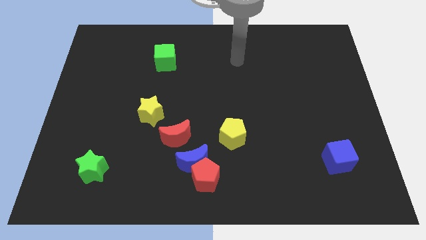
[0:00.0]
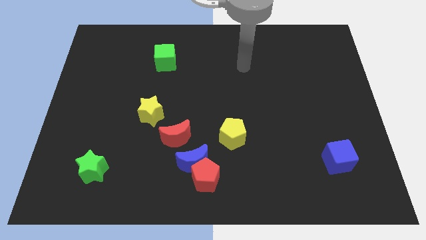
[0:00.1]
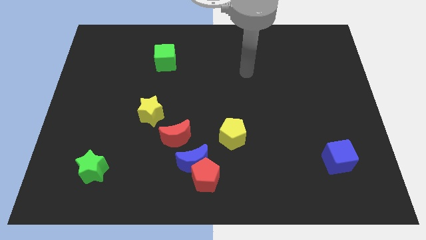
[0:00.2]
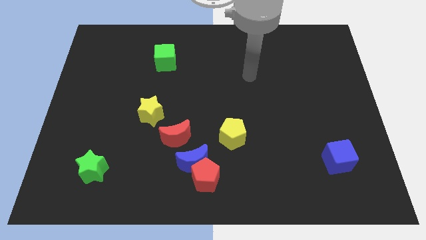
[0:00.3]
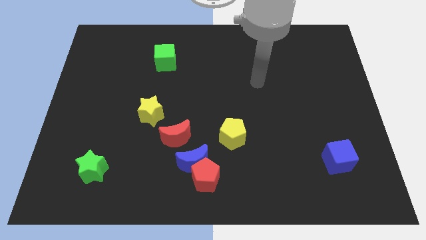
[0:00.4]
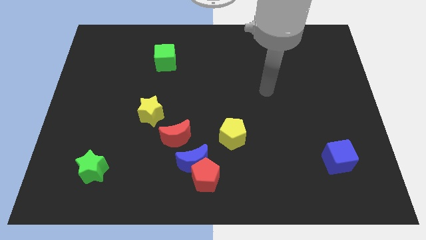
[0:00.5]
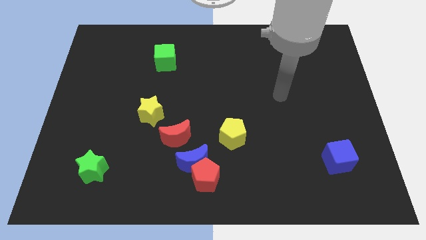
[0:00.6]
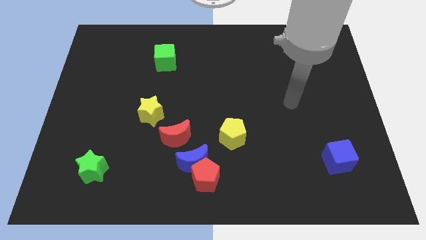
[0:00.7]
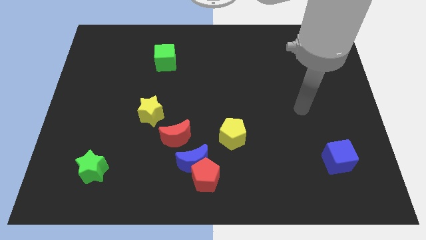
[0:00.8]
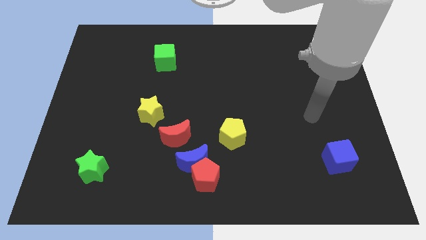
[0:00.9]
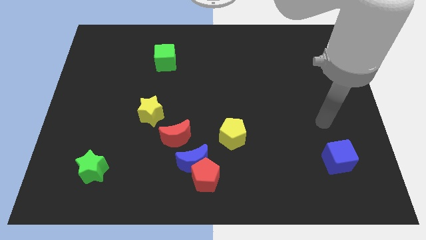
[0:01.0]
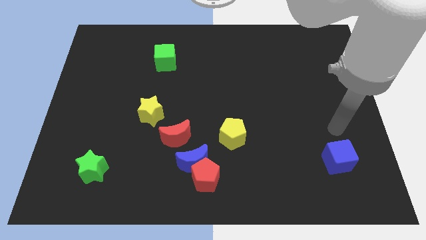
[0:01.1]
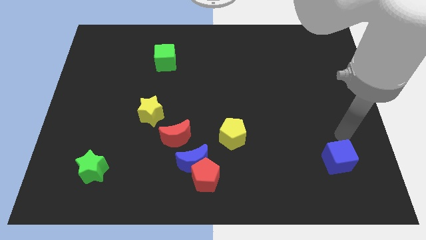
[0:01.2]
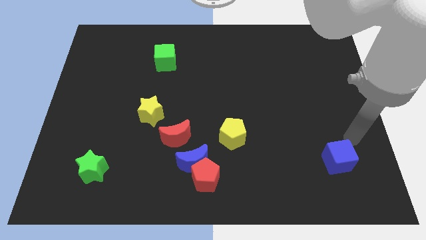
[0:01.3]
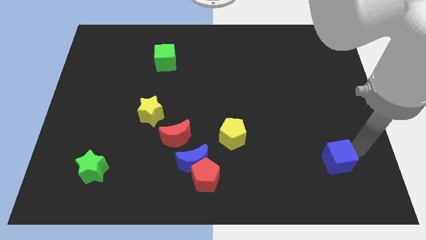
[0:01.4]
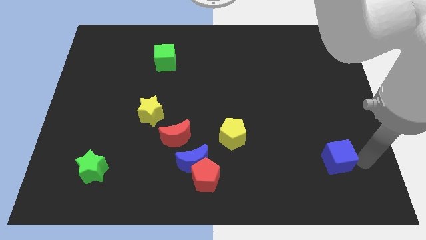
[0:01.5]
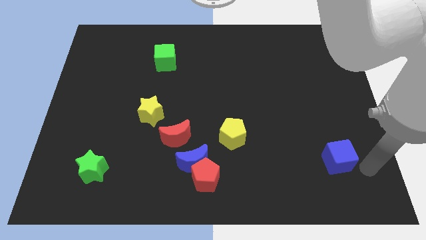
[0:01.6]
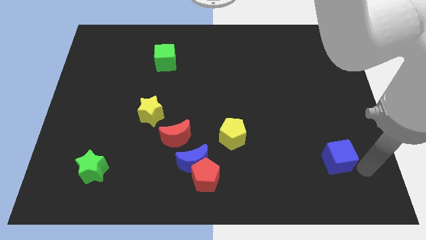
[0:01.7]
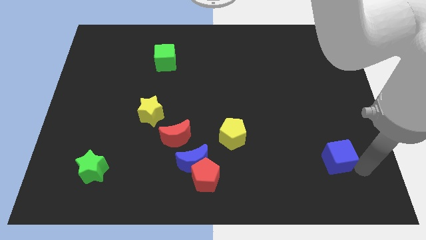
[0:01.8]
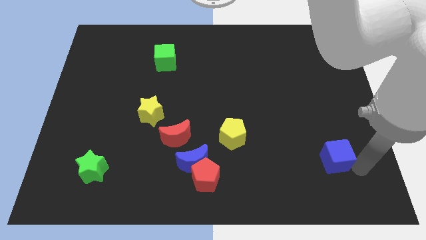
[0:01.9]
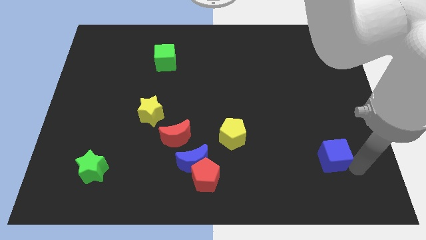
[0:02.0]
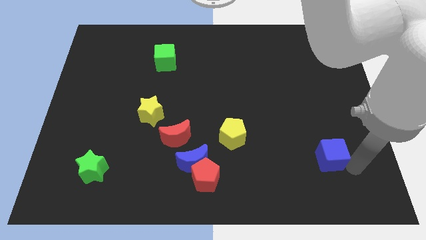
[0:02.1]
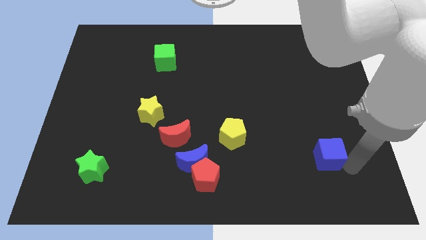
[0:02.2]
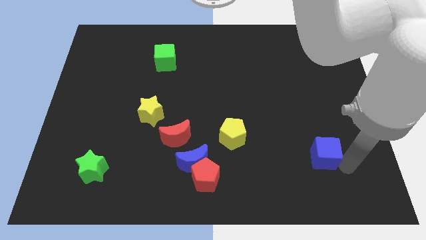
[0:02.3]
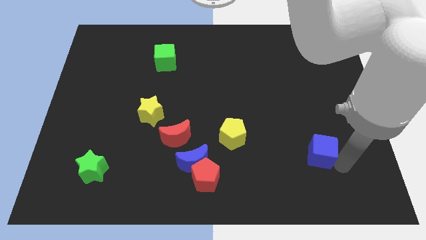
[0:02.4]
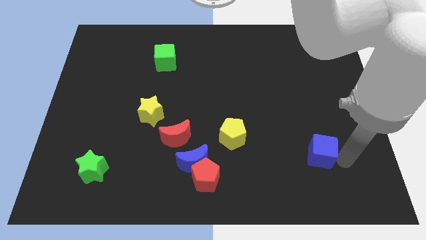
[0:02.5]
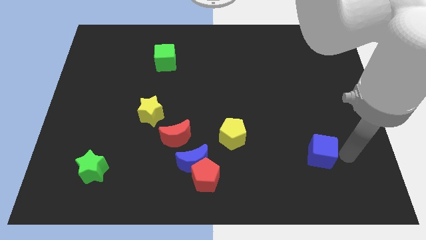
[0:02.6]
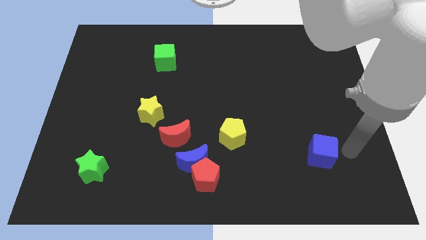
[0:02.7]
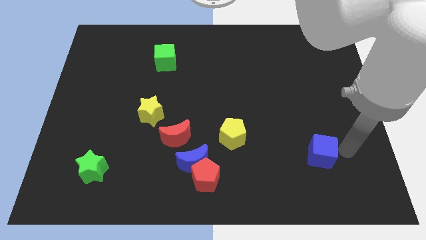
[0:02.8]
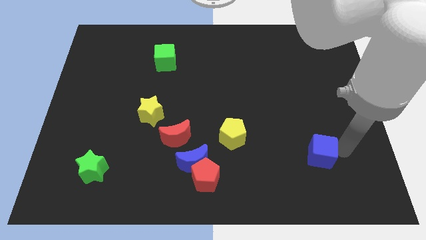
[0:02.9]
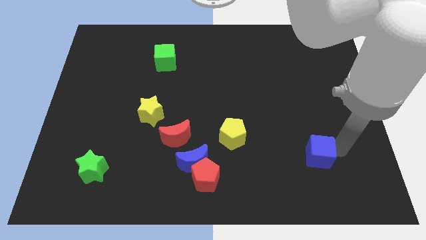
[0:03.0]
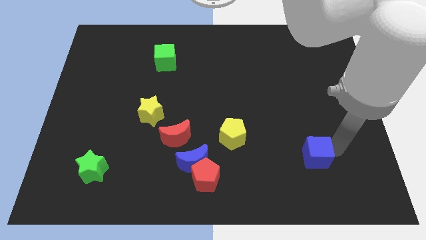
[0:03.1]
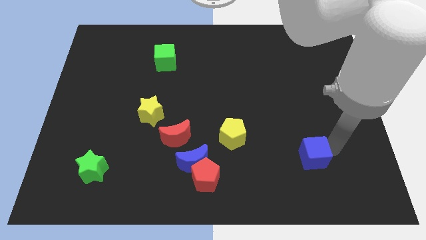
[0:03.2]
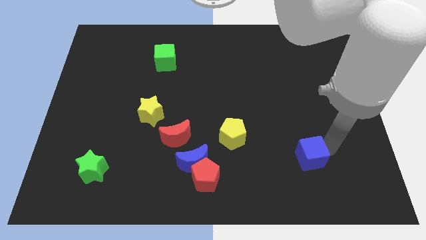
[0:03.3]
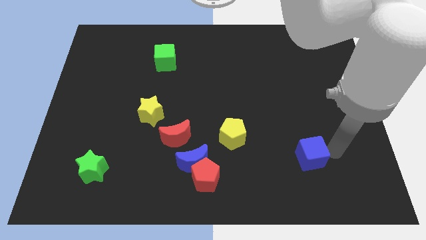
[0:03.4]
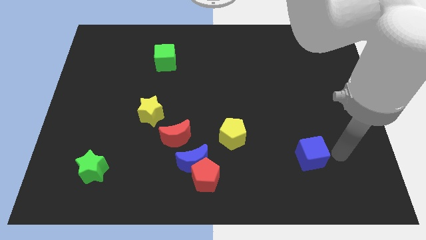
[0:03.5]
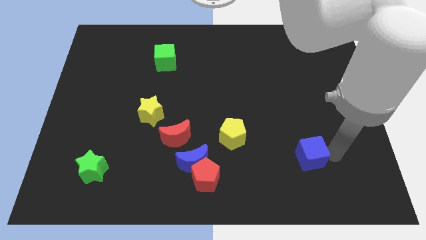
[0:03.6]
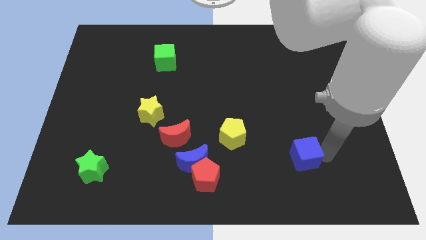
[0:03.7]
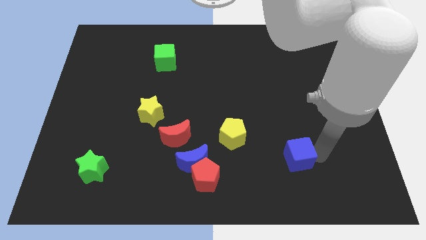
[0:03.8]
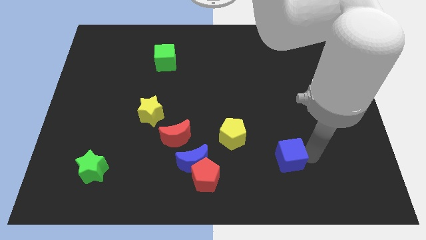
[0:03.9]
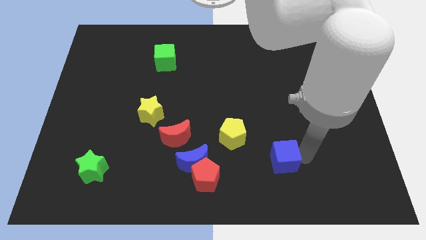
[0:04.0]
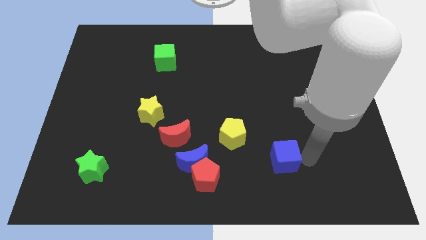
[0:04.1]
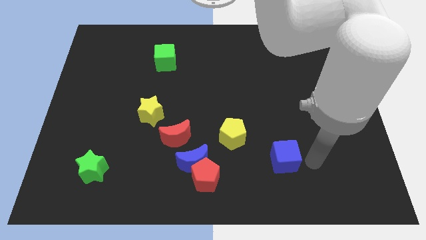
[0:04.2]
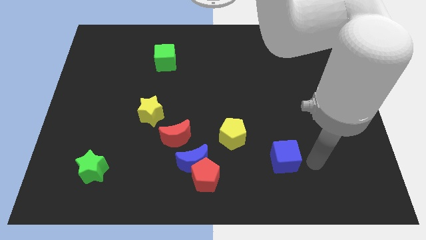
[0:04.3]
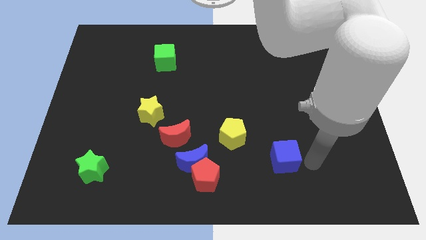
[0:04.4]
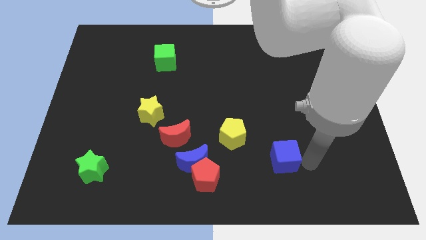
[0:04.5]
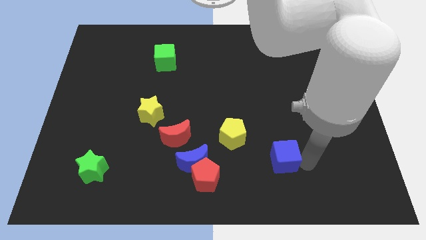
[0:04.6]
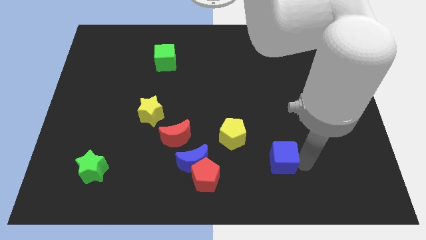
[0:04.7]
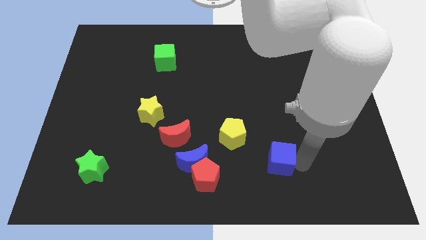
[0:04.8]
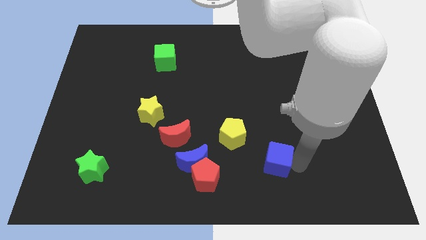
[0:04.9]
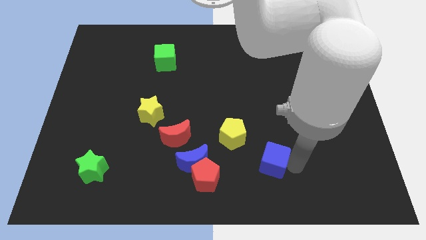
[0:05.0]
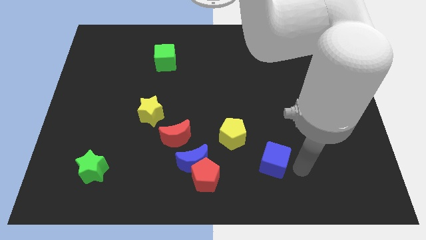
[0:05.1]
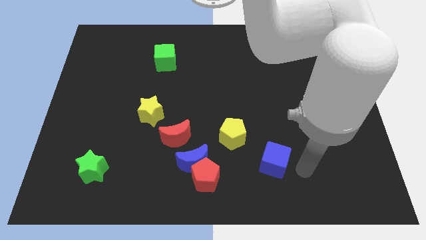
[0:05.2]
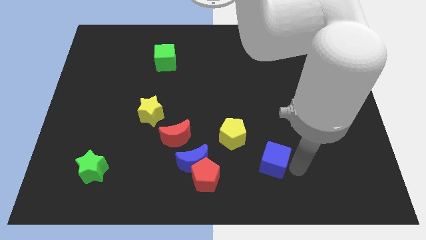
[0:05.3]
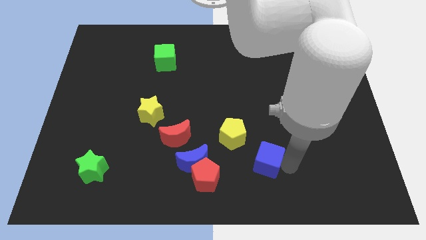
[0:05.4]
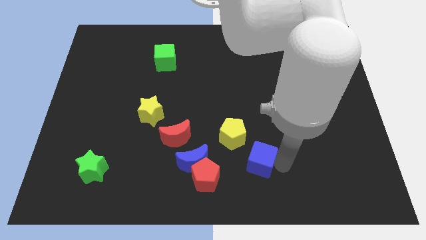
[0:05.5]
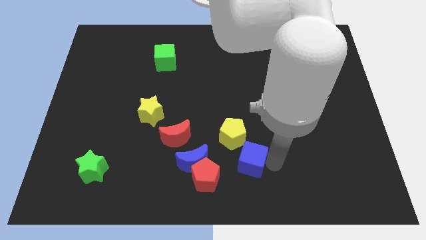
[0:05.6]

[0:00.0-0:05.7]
slide the blue cube to the top right of the red pentagon

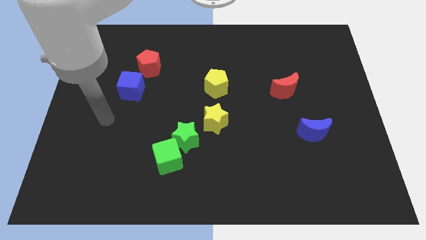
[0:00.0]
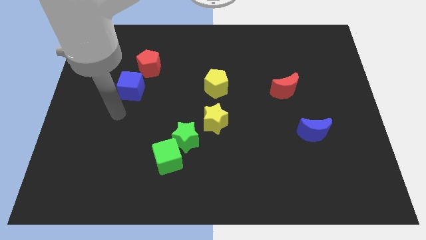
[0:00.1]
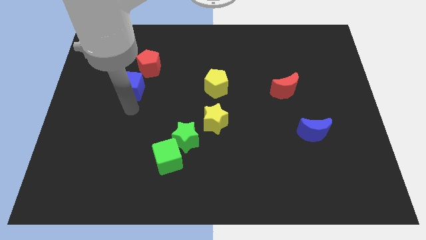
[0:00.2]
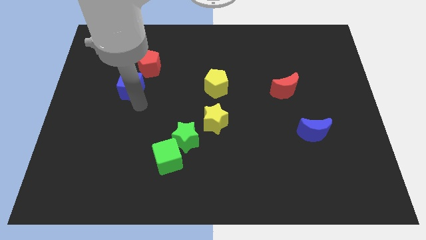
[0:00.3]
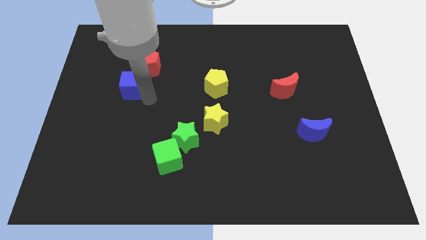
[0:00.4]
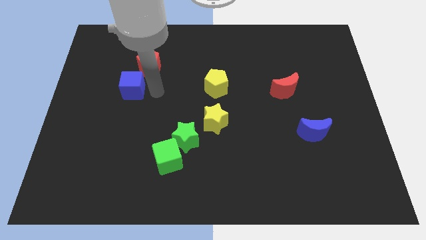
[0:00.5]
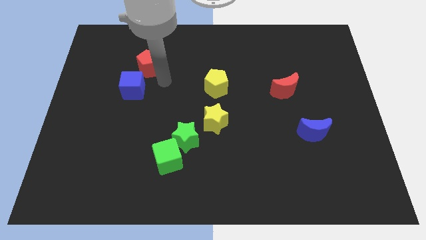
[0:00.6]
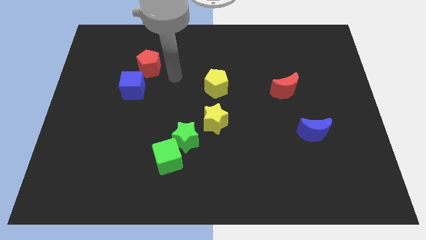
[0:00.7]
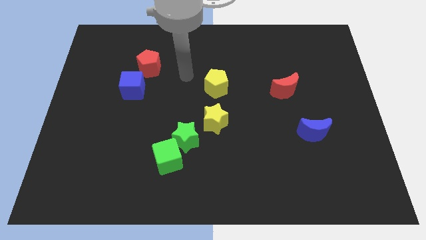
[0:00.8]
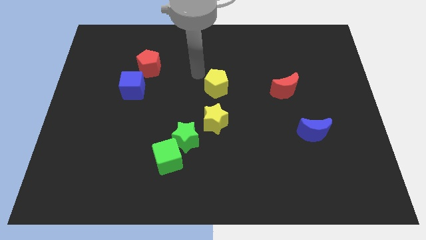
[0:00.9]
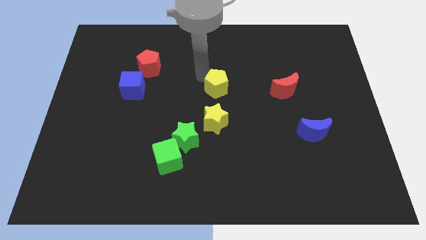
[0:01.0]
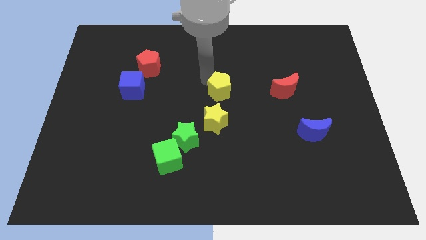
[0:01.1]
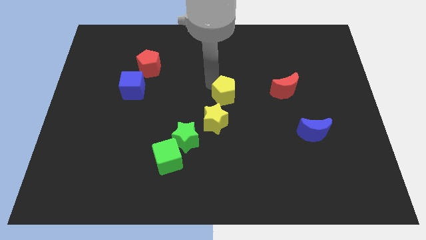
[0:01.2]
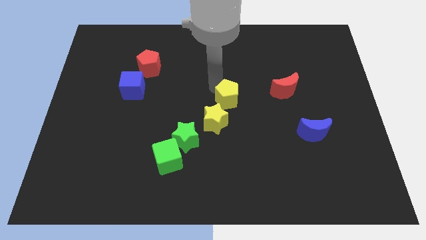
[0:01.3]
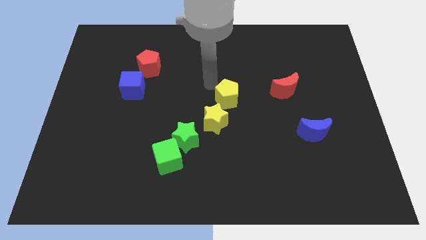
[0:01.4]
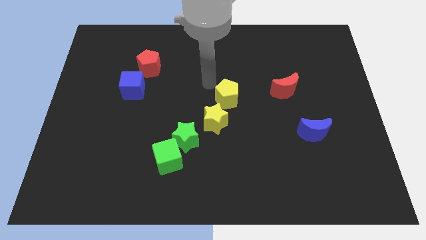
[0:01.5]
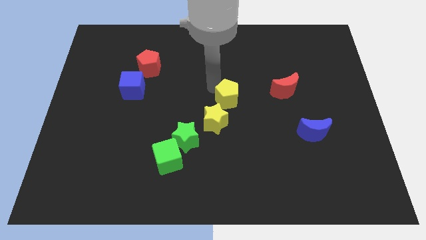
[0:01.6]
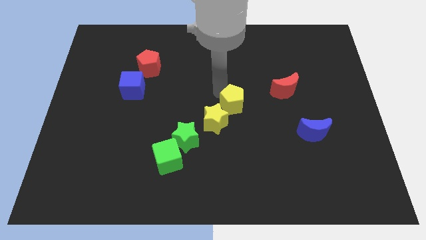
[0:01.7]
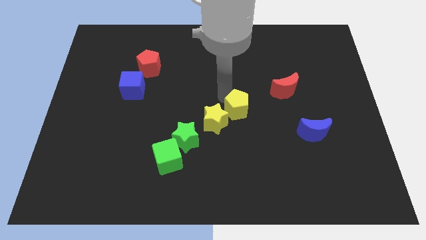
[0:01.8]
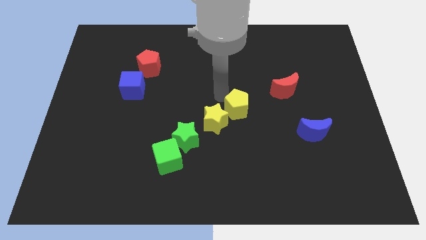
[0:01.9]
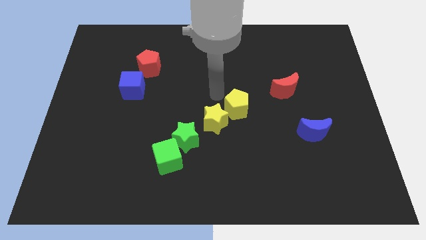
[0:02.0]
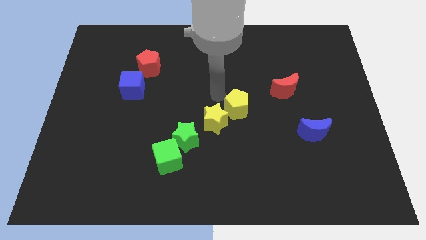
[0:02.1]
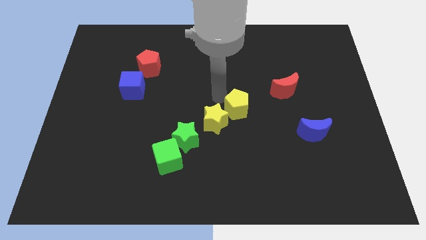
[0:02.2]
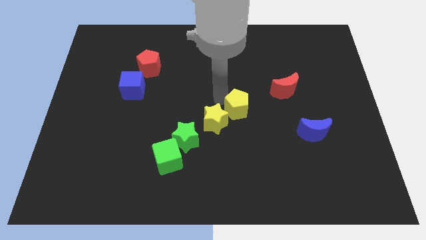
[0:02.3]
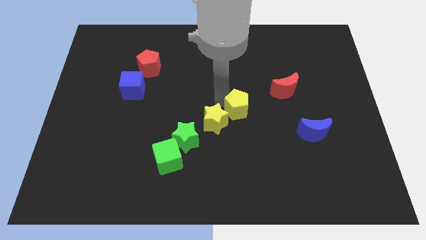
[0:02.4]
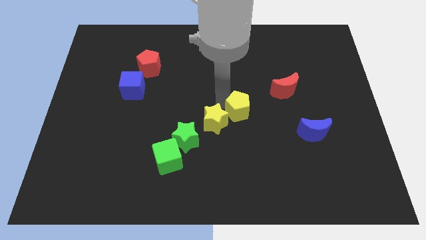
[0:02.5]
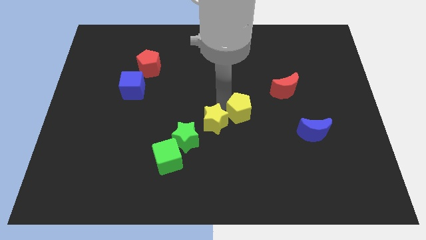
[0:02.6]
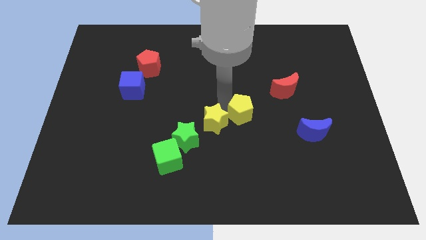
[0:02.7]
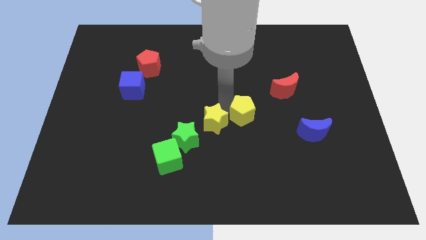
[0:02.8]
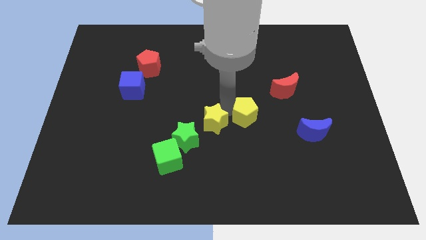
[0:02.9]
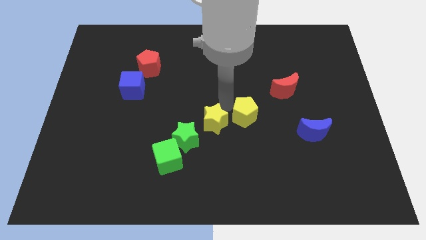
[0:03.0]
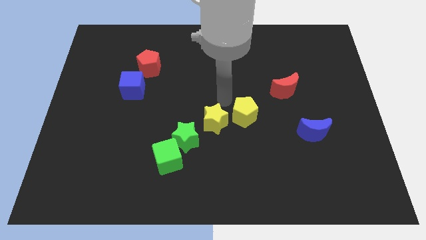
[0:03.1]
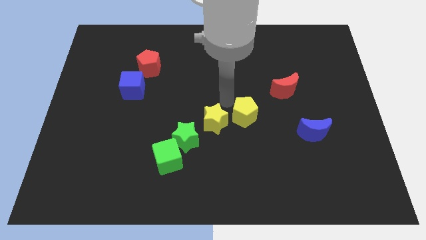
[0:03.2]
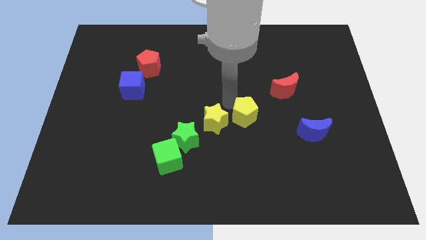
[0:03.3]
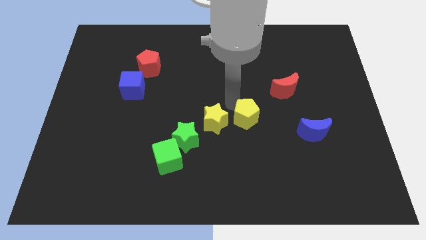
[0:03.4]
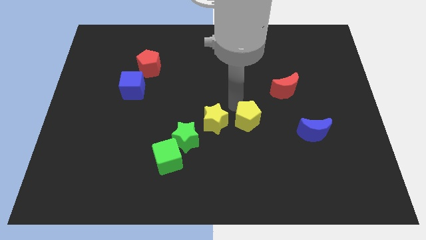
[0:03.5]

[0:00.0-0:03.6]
push the yellow pentagon to the left of the blue moon
